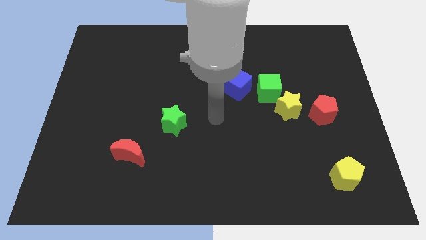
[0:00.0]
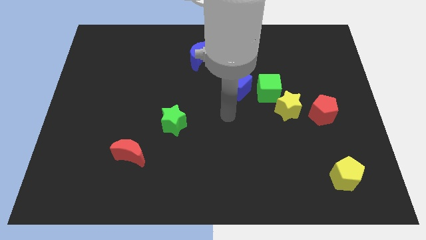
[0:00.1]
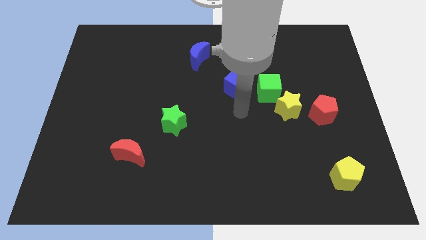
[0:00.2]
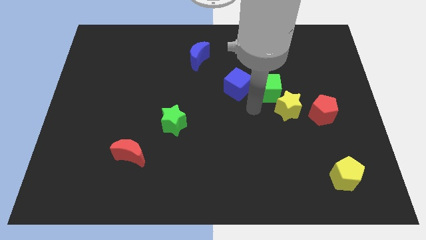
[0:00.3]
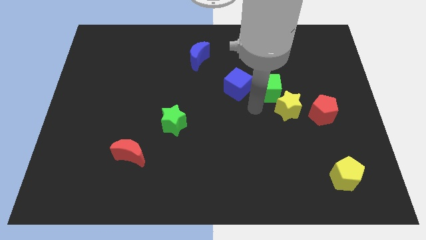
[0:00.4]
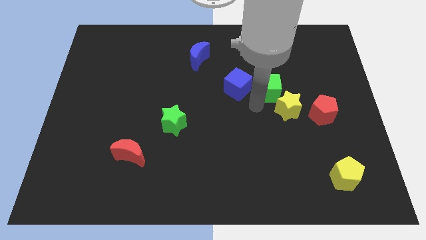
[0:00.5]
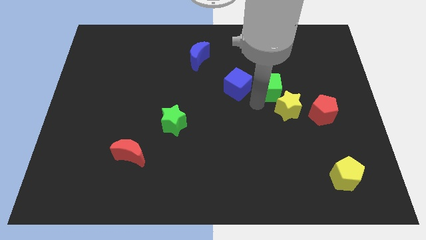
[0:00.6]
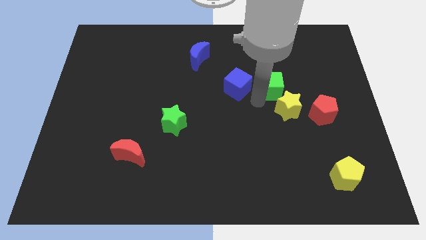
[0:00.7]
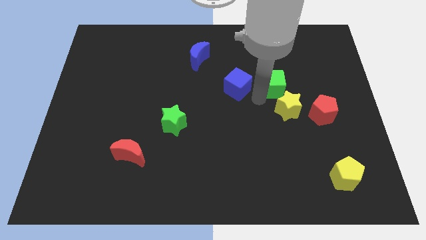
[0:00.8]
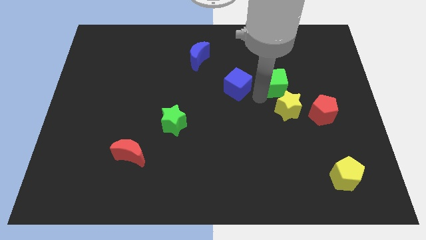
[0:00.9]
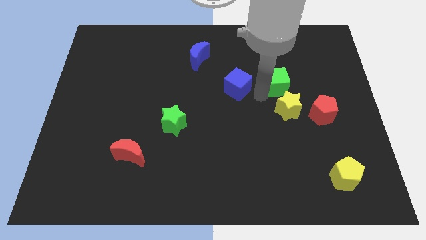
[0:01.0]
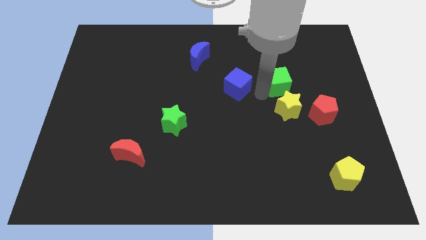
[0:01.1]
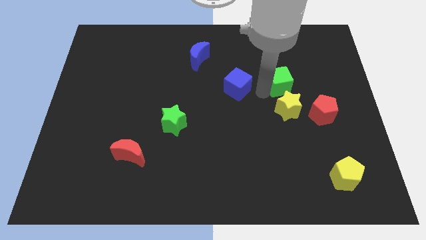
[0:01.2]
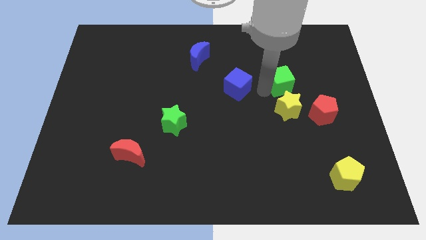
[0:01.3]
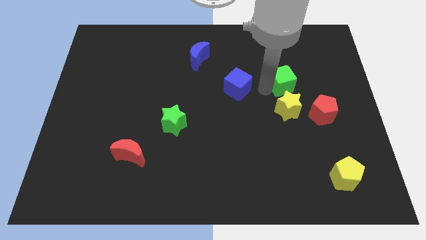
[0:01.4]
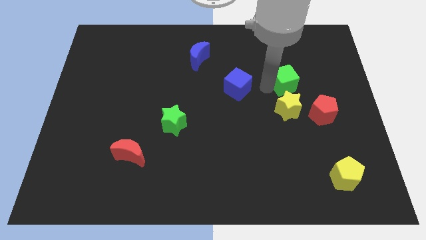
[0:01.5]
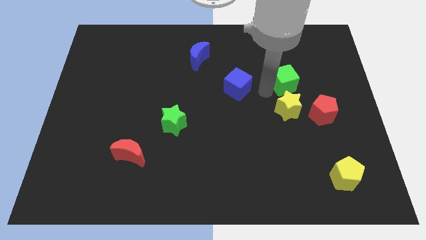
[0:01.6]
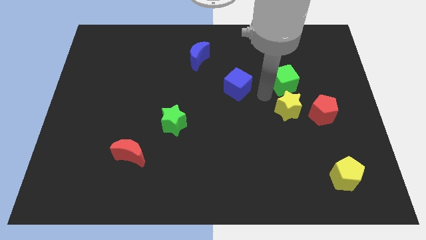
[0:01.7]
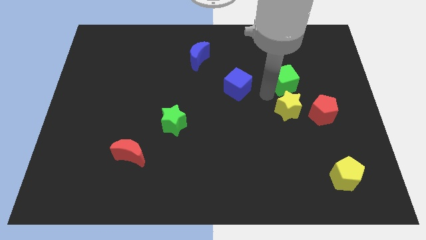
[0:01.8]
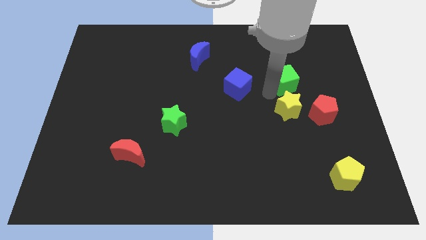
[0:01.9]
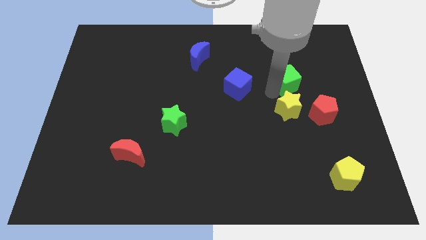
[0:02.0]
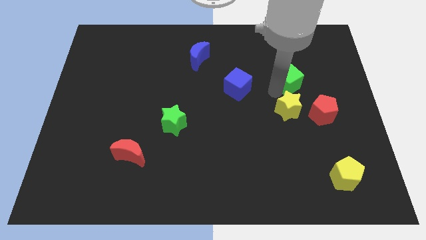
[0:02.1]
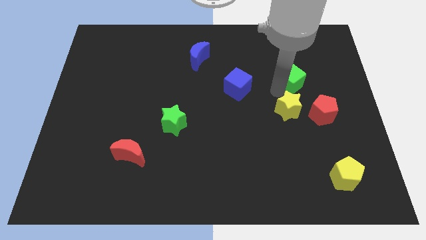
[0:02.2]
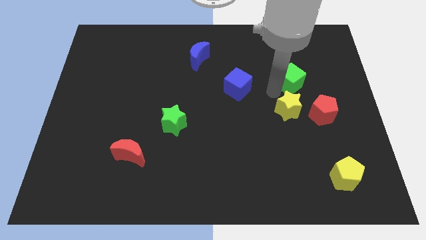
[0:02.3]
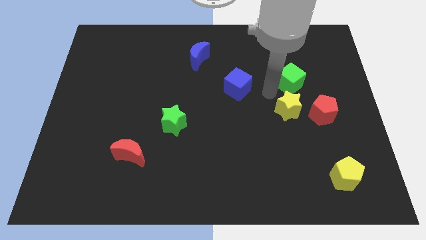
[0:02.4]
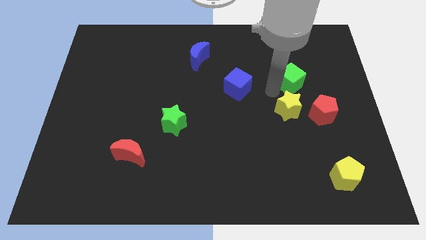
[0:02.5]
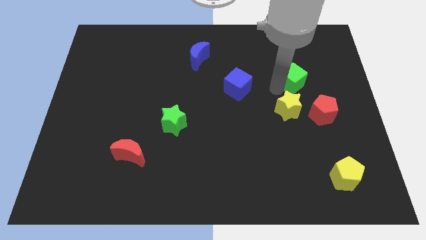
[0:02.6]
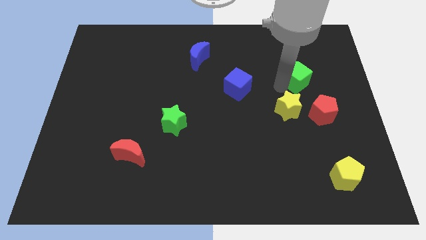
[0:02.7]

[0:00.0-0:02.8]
move the green cube away from the yellow star and blue cube

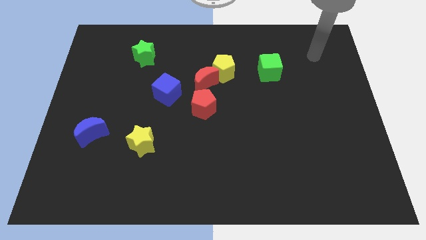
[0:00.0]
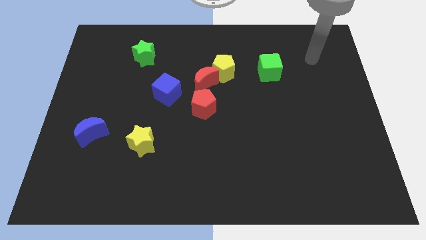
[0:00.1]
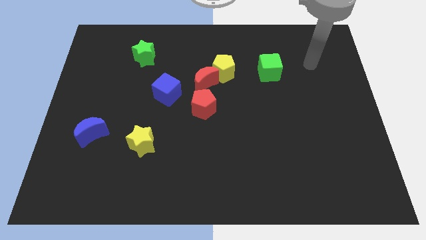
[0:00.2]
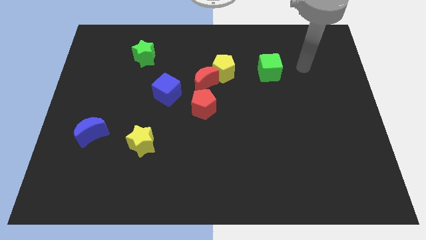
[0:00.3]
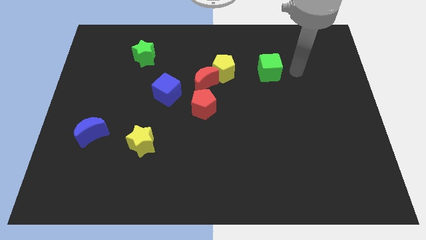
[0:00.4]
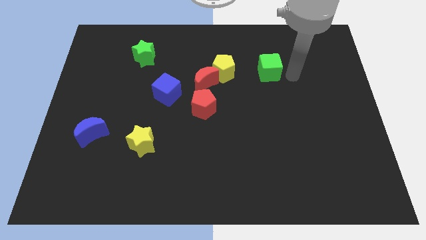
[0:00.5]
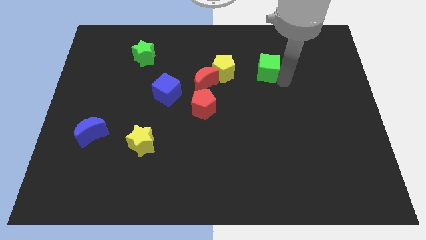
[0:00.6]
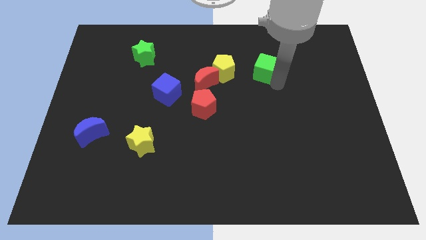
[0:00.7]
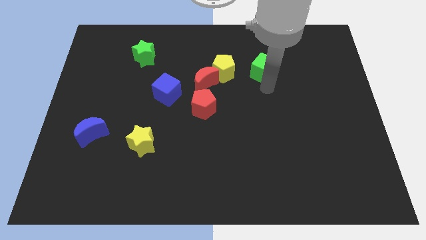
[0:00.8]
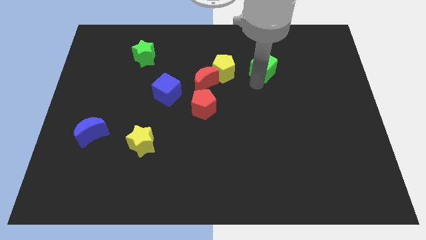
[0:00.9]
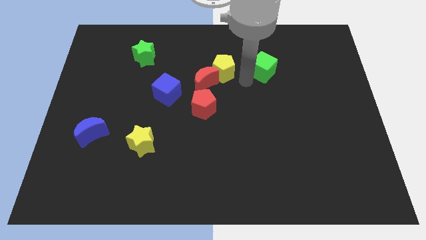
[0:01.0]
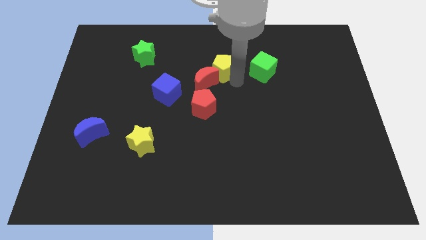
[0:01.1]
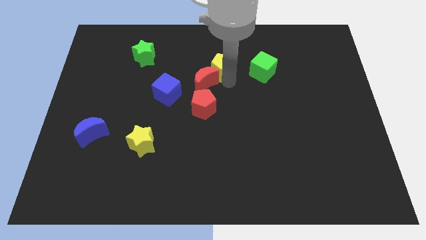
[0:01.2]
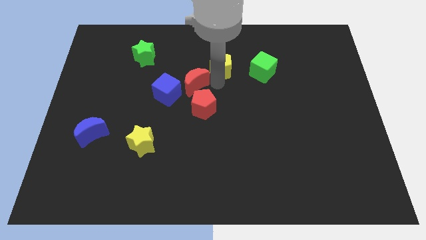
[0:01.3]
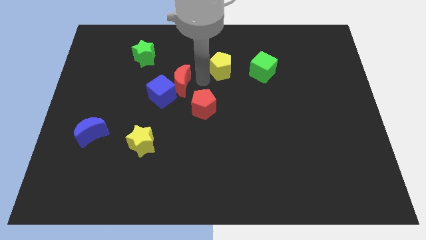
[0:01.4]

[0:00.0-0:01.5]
move the yellow pentagon away from the red moon

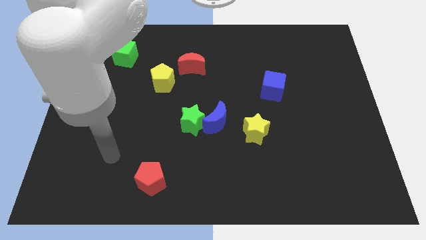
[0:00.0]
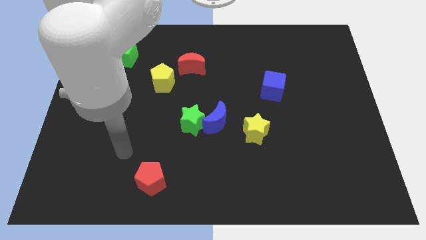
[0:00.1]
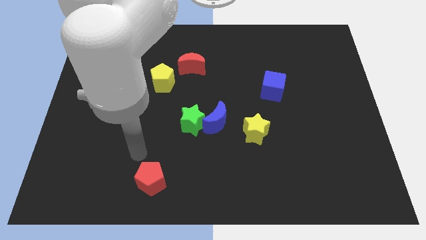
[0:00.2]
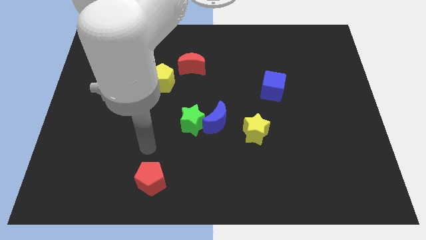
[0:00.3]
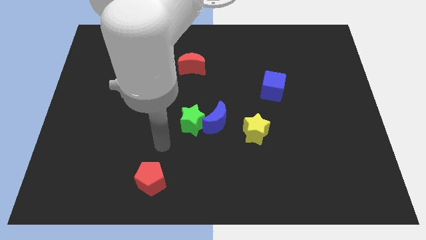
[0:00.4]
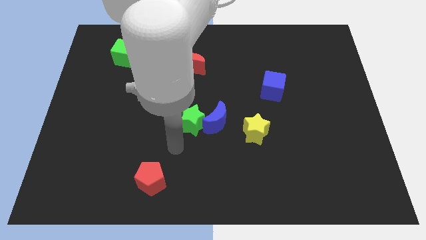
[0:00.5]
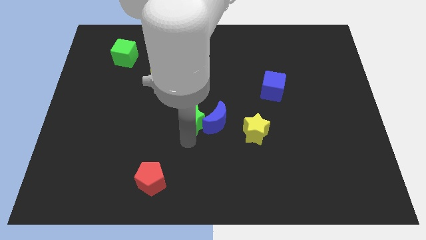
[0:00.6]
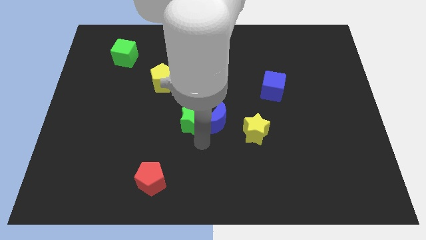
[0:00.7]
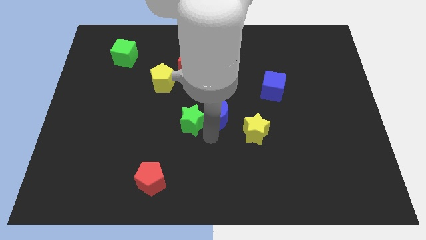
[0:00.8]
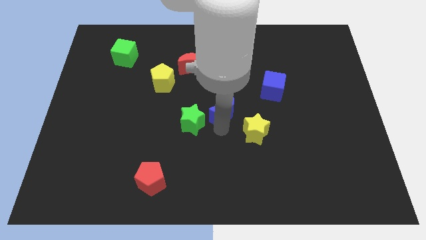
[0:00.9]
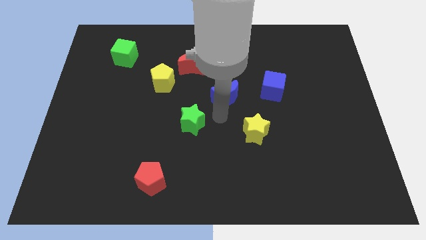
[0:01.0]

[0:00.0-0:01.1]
separate the green star from the blue moon

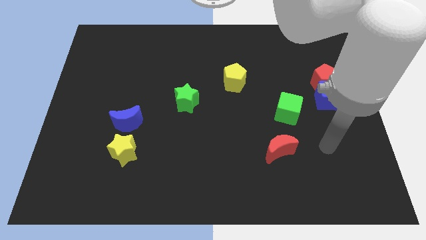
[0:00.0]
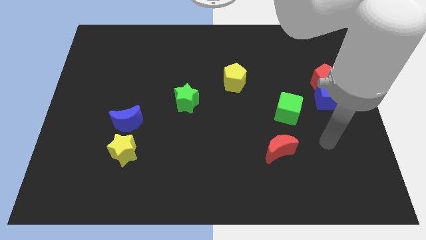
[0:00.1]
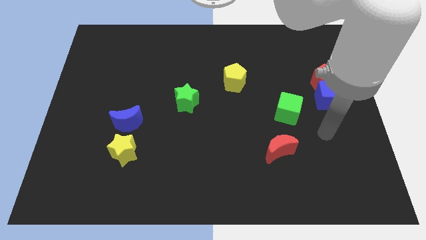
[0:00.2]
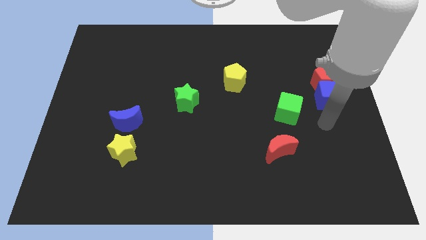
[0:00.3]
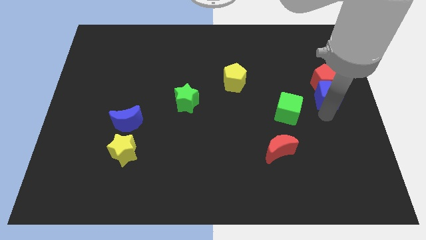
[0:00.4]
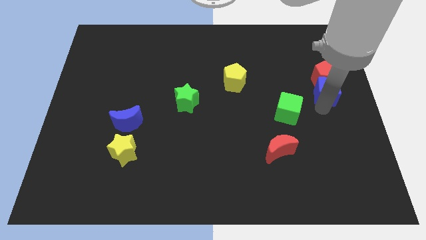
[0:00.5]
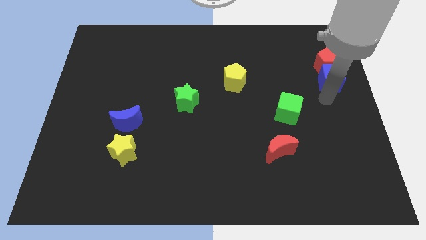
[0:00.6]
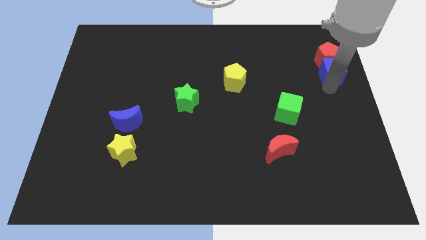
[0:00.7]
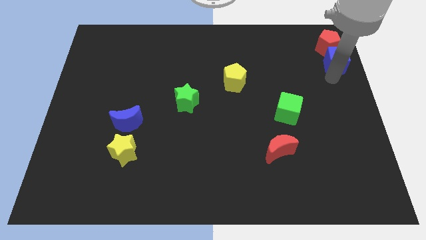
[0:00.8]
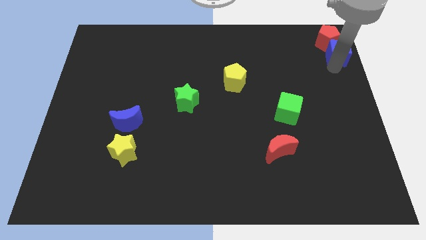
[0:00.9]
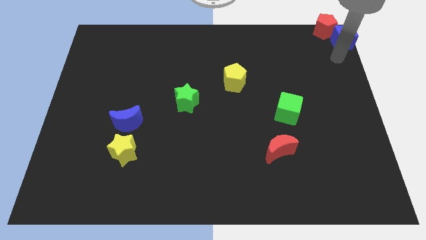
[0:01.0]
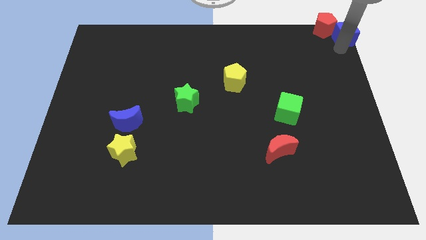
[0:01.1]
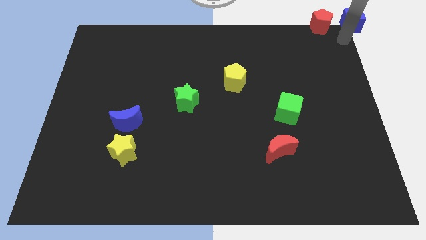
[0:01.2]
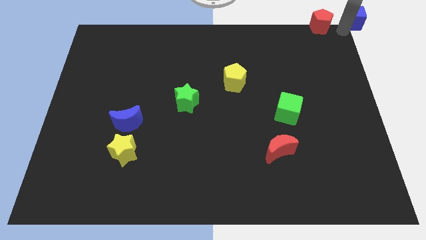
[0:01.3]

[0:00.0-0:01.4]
separate the red pentagon from the blue cube

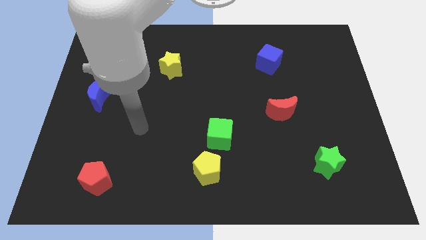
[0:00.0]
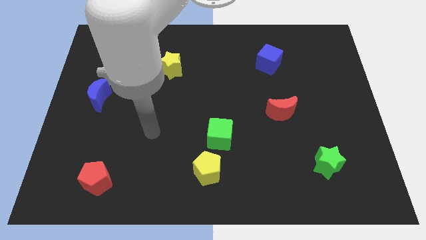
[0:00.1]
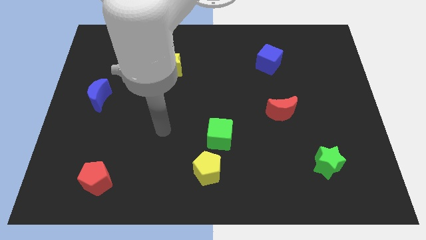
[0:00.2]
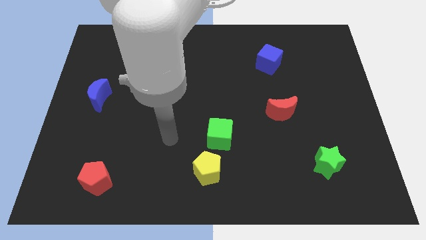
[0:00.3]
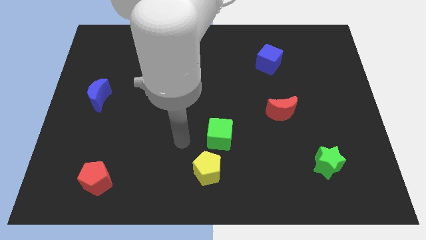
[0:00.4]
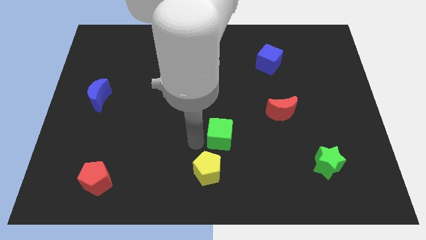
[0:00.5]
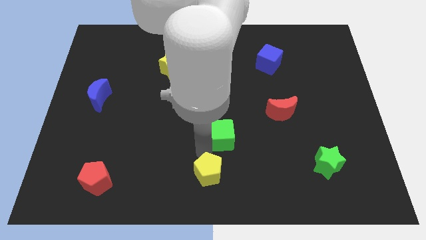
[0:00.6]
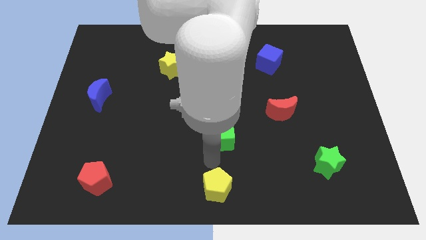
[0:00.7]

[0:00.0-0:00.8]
pull the green cube apart from the yellow pentagon

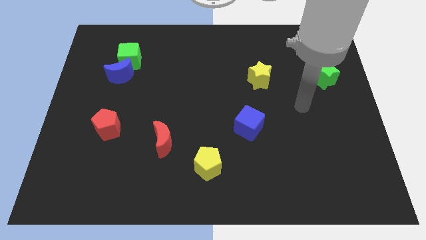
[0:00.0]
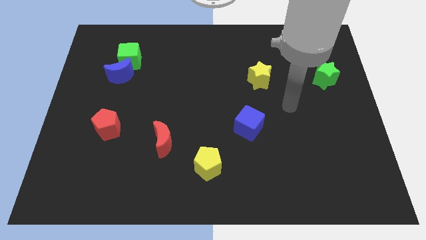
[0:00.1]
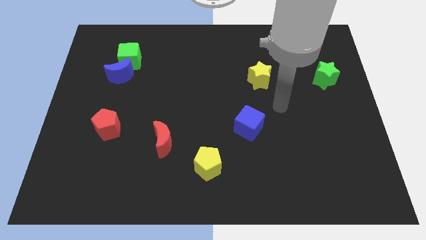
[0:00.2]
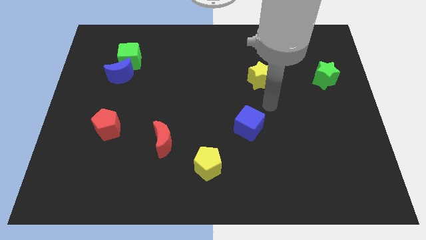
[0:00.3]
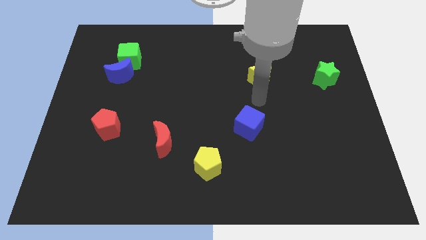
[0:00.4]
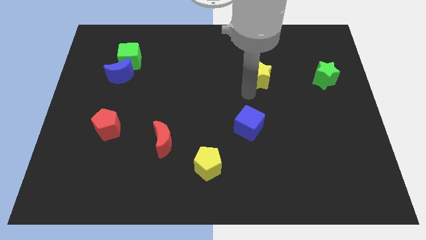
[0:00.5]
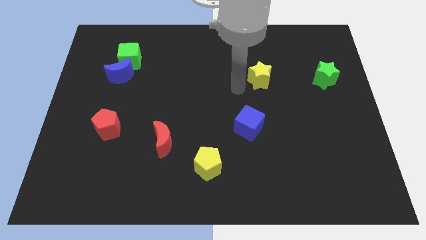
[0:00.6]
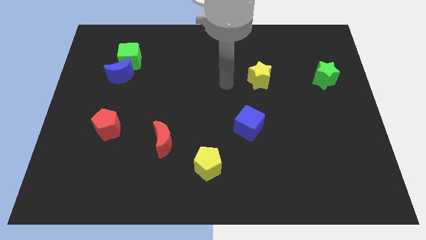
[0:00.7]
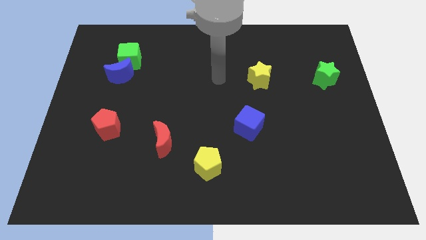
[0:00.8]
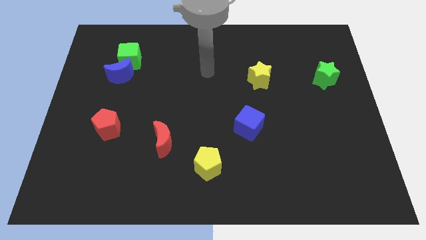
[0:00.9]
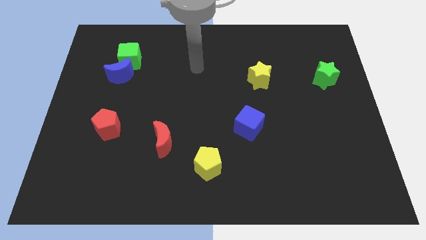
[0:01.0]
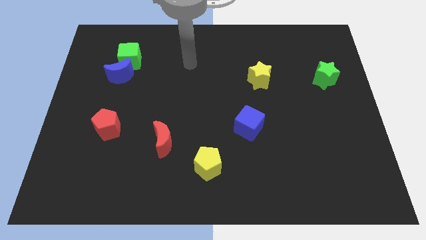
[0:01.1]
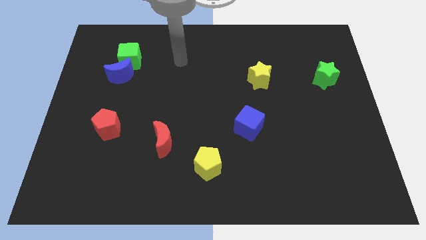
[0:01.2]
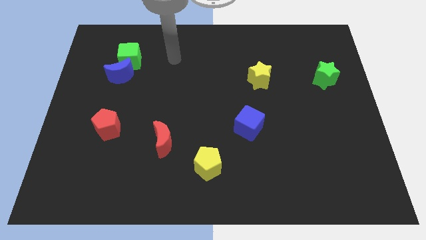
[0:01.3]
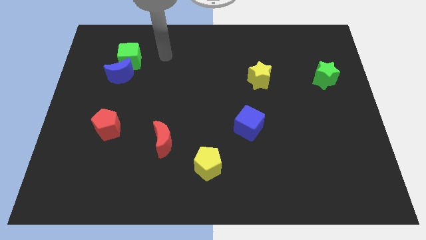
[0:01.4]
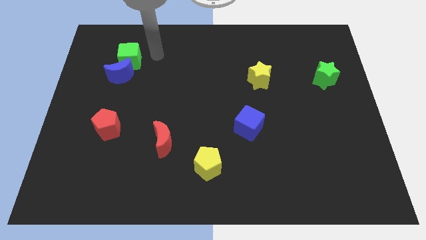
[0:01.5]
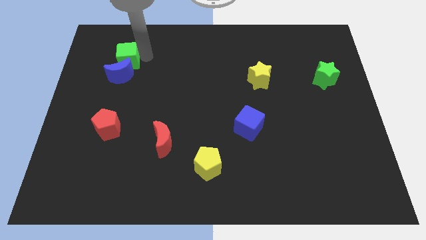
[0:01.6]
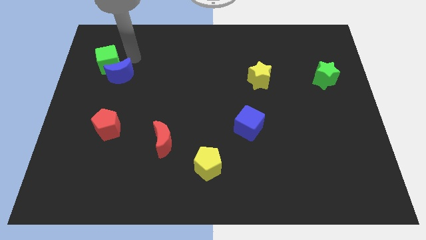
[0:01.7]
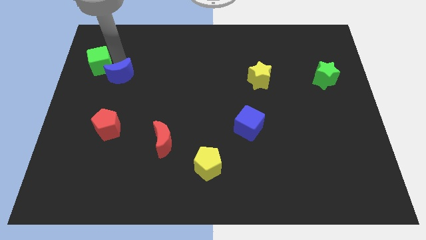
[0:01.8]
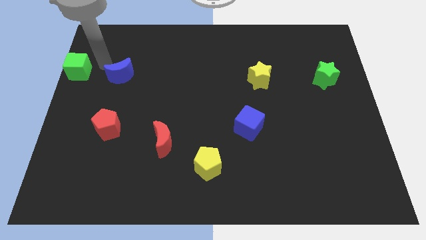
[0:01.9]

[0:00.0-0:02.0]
separate the blue moon from the green cube
